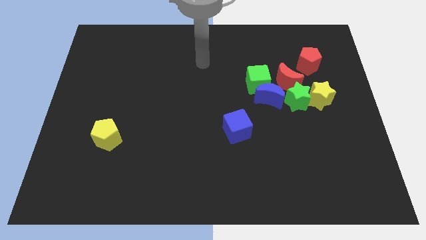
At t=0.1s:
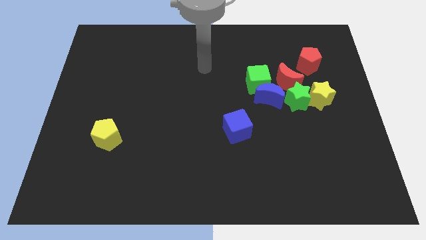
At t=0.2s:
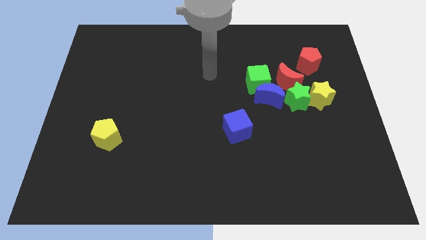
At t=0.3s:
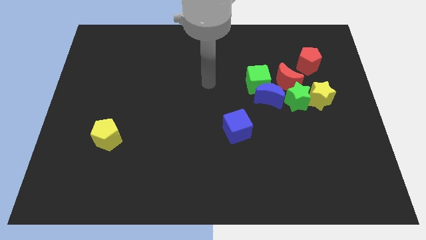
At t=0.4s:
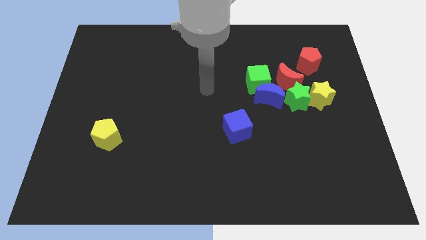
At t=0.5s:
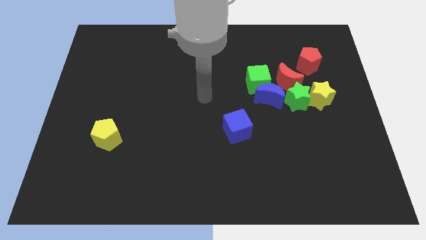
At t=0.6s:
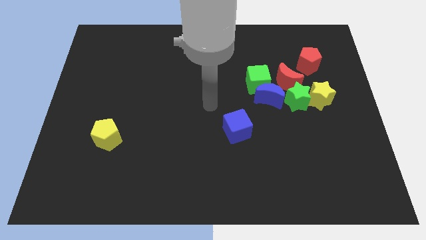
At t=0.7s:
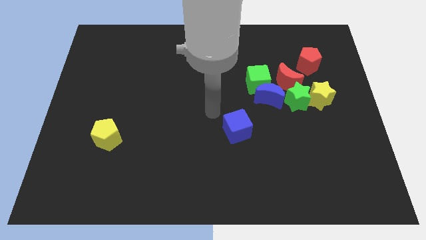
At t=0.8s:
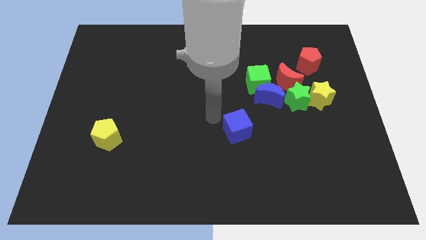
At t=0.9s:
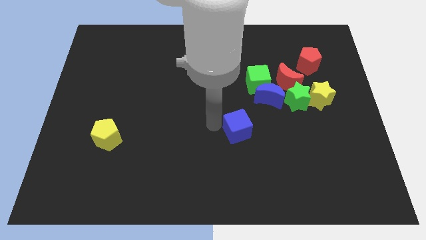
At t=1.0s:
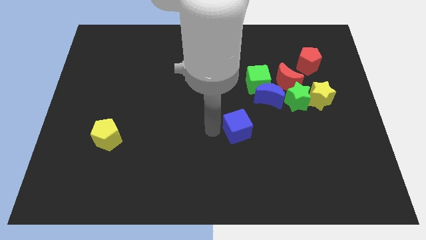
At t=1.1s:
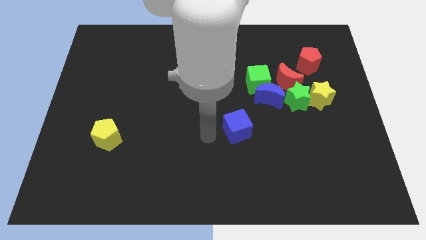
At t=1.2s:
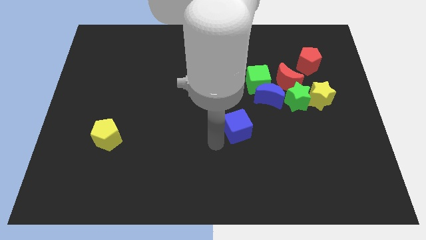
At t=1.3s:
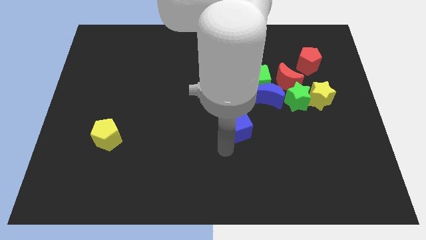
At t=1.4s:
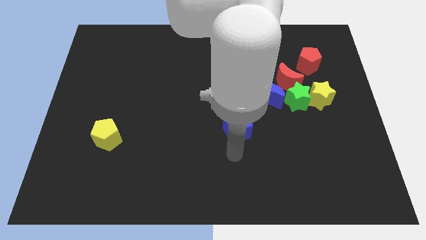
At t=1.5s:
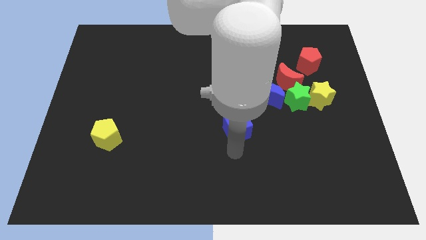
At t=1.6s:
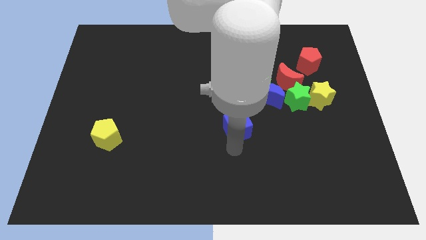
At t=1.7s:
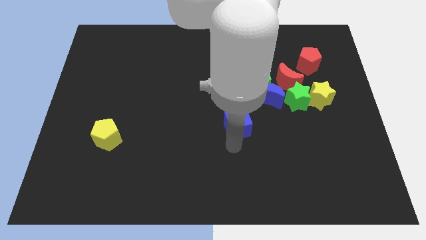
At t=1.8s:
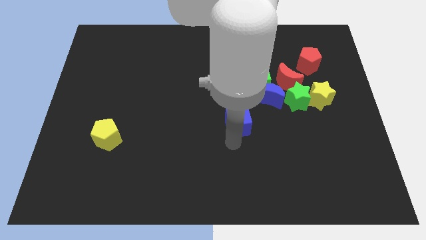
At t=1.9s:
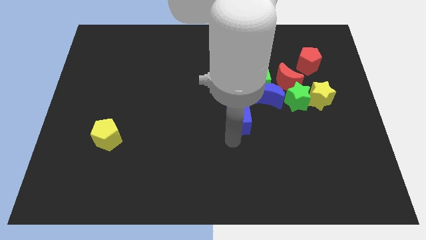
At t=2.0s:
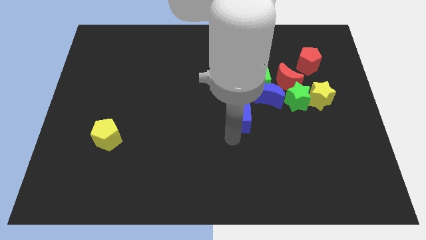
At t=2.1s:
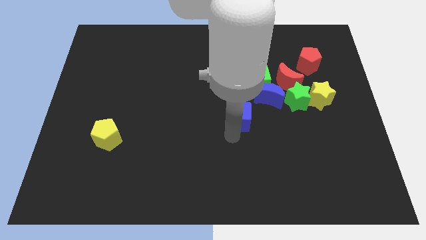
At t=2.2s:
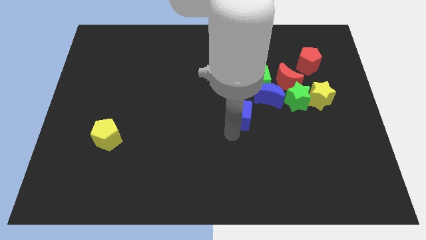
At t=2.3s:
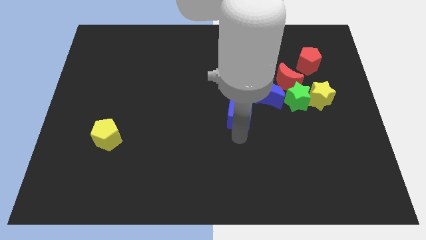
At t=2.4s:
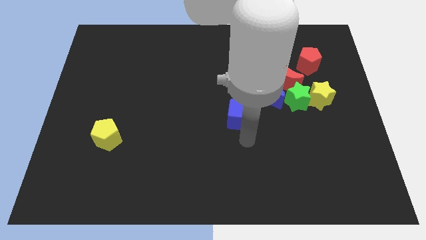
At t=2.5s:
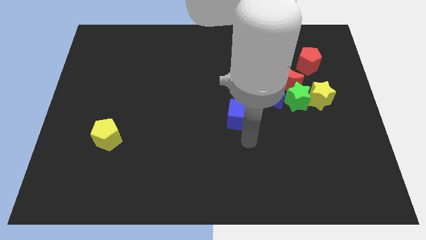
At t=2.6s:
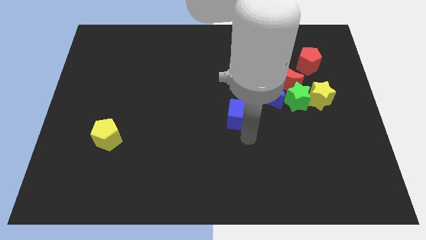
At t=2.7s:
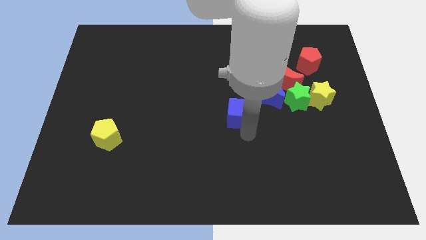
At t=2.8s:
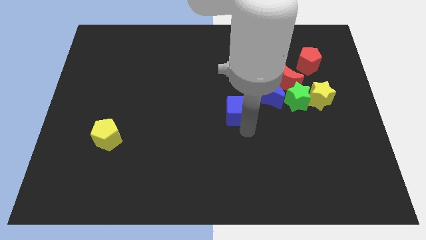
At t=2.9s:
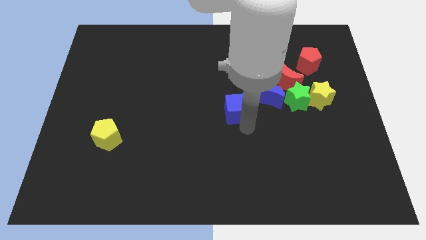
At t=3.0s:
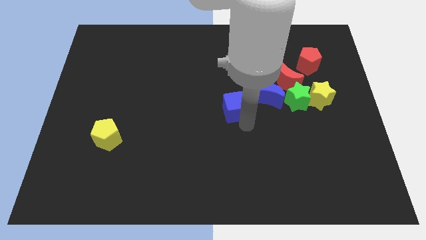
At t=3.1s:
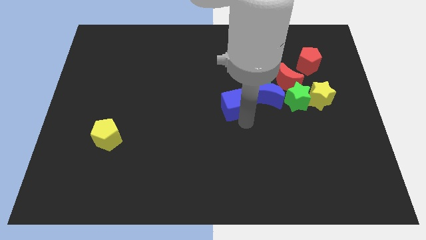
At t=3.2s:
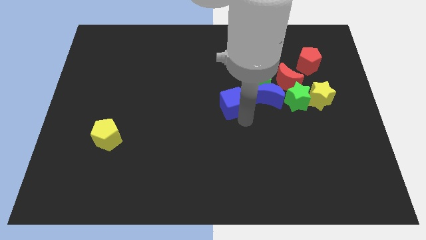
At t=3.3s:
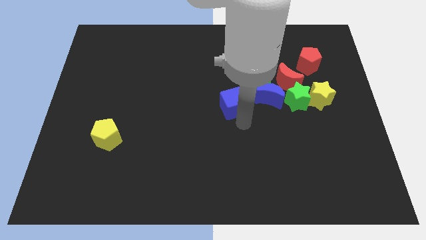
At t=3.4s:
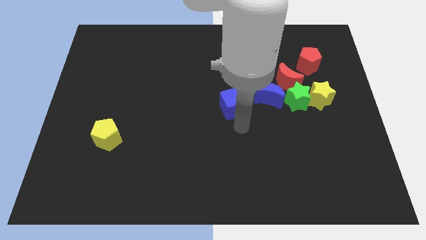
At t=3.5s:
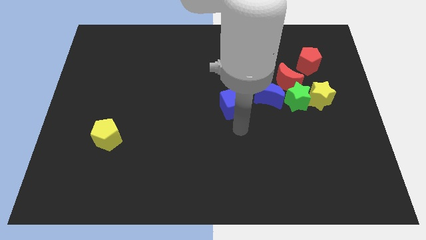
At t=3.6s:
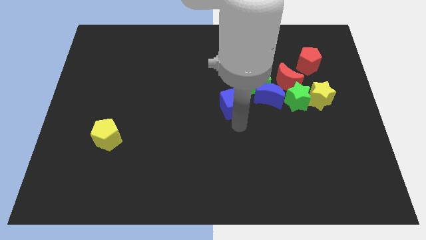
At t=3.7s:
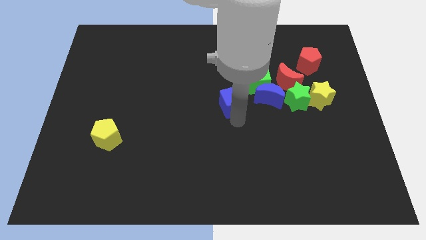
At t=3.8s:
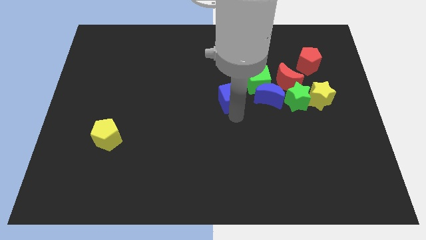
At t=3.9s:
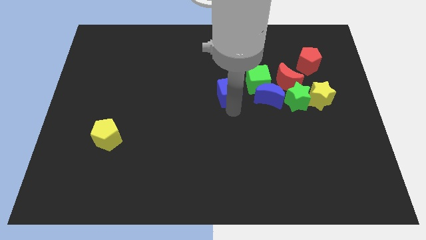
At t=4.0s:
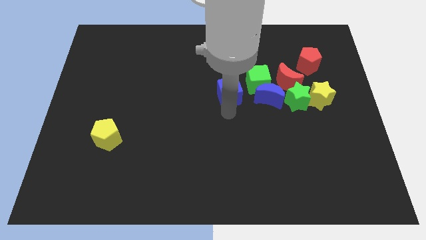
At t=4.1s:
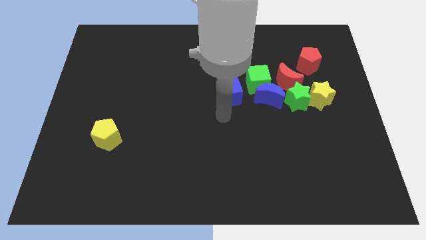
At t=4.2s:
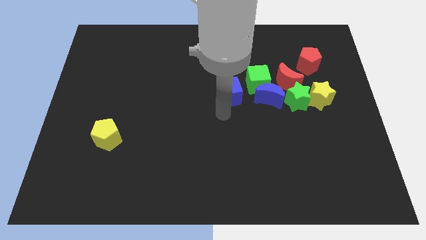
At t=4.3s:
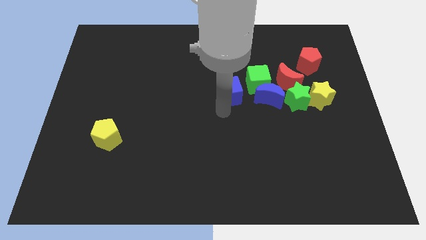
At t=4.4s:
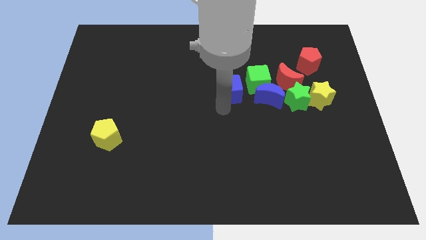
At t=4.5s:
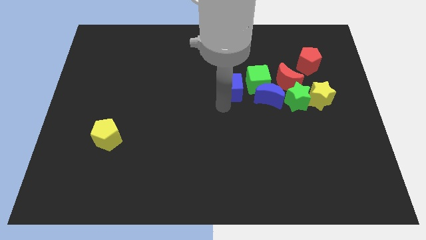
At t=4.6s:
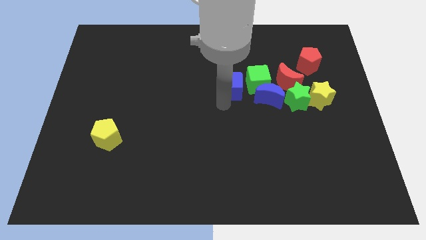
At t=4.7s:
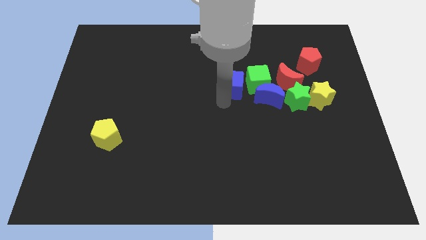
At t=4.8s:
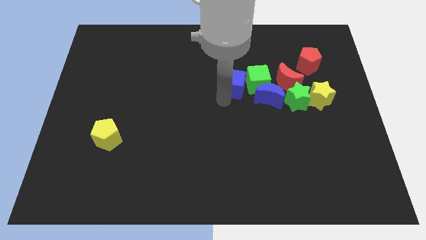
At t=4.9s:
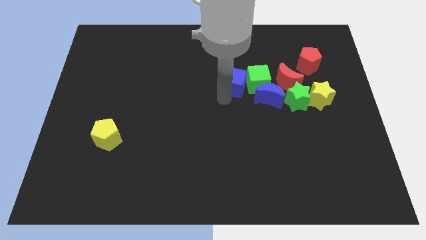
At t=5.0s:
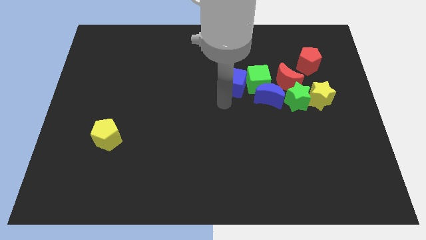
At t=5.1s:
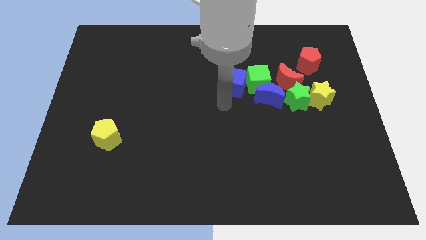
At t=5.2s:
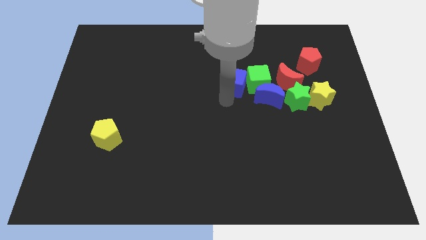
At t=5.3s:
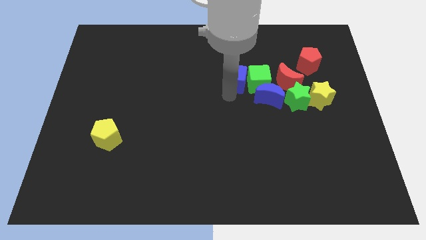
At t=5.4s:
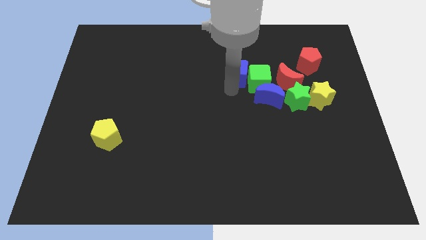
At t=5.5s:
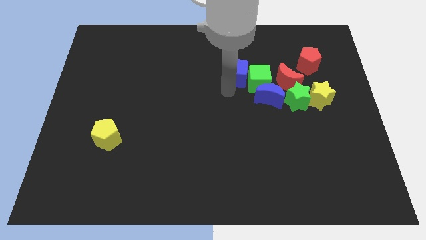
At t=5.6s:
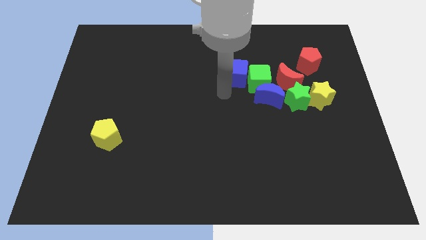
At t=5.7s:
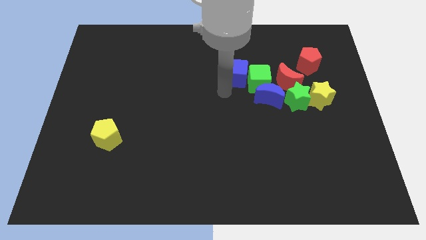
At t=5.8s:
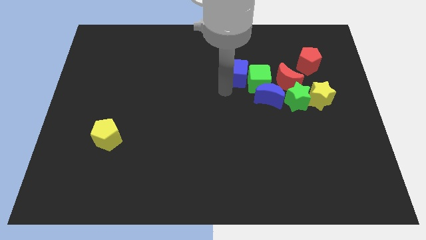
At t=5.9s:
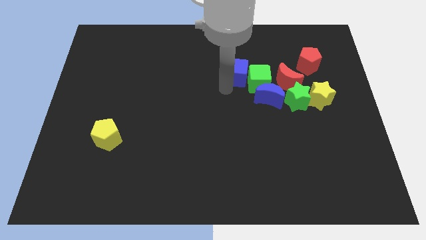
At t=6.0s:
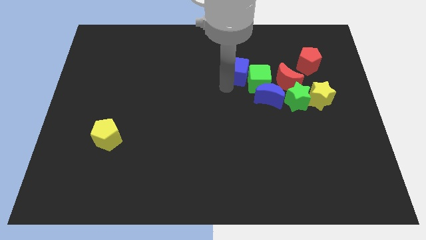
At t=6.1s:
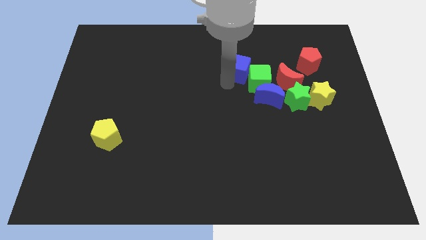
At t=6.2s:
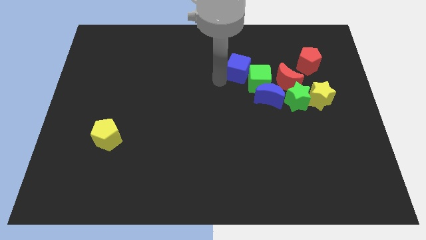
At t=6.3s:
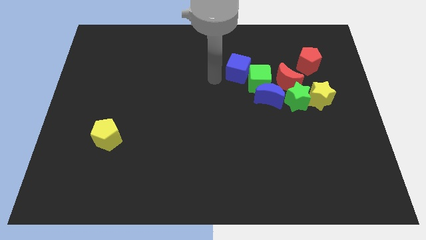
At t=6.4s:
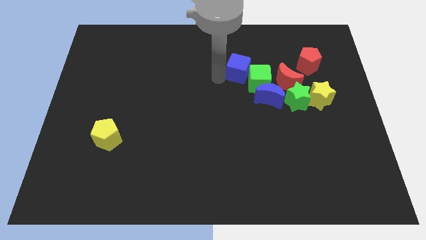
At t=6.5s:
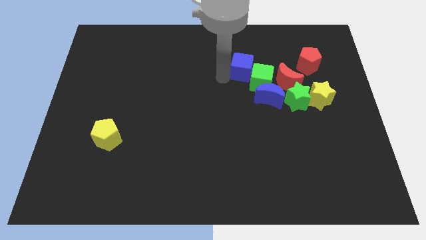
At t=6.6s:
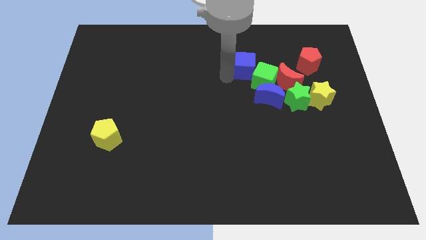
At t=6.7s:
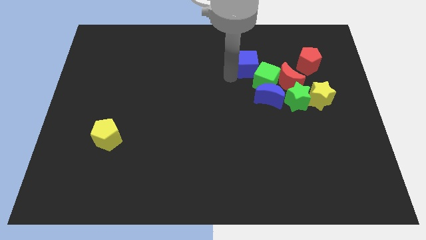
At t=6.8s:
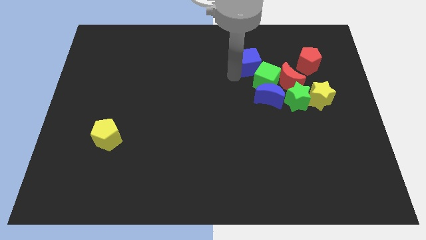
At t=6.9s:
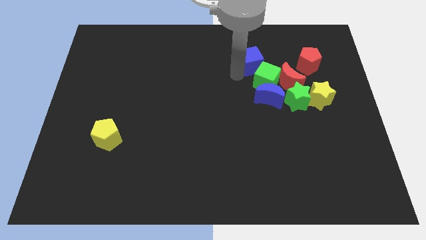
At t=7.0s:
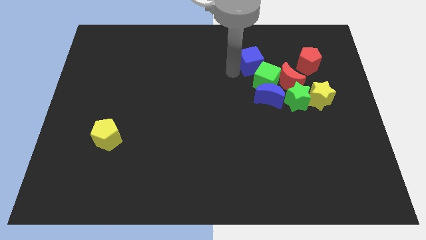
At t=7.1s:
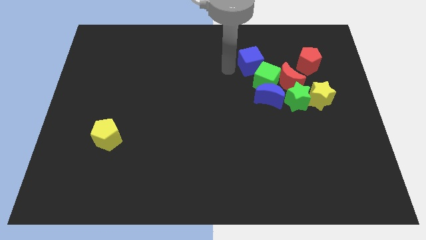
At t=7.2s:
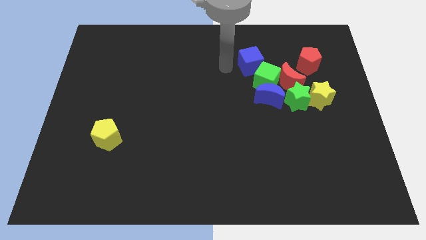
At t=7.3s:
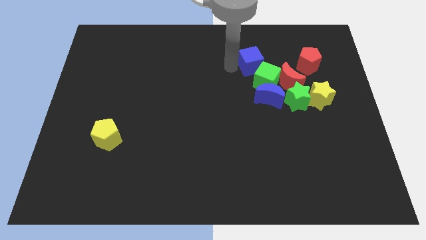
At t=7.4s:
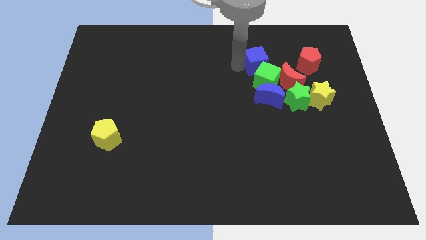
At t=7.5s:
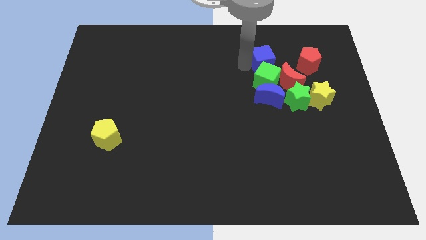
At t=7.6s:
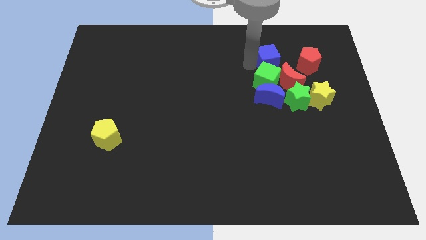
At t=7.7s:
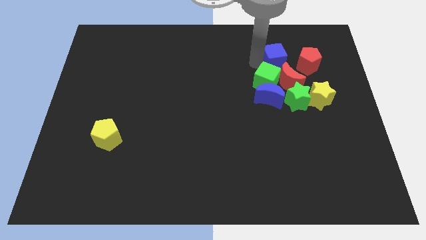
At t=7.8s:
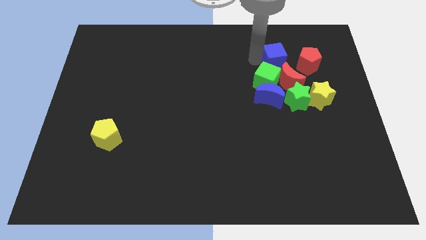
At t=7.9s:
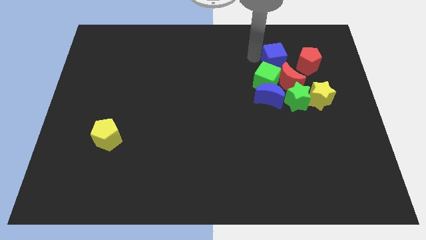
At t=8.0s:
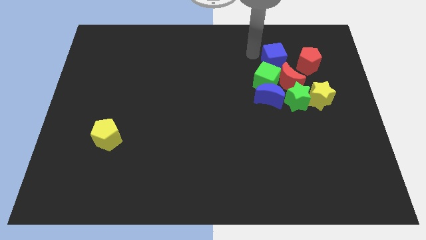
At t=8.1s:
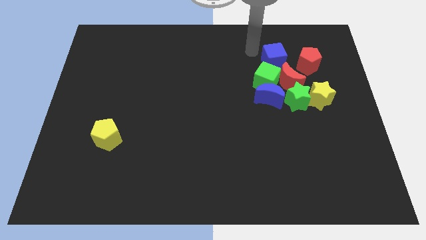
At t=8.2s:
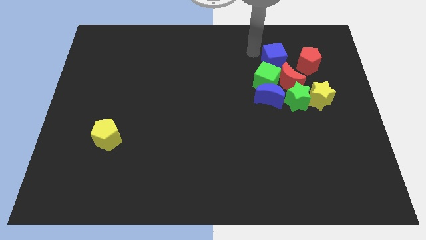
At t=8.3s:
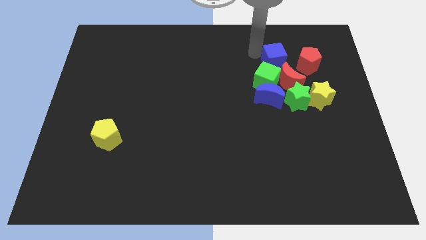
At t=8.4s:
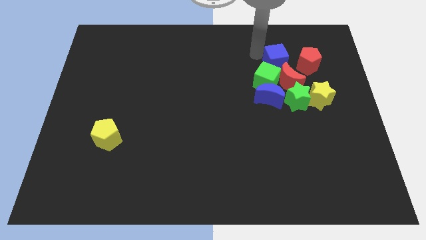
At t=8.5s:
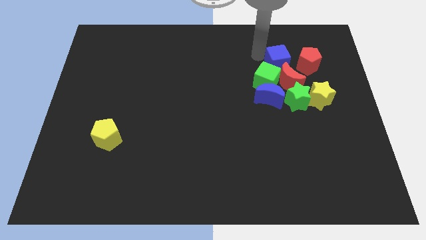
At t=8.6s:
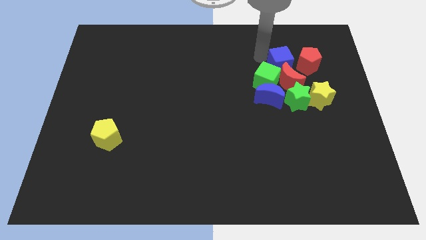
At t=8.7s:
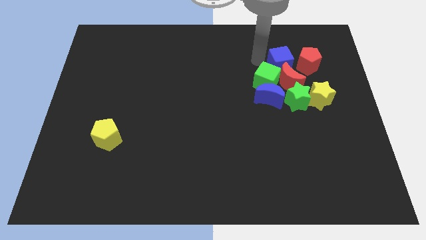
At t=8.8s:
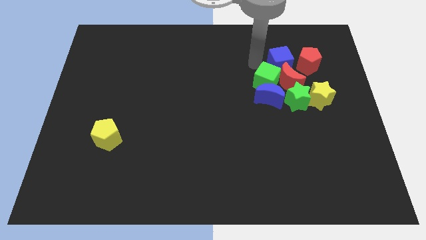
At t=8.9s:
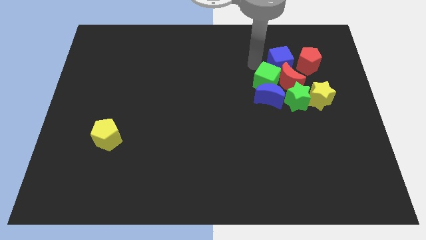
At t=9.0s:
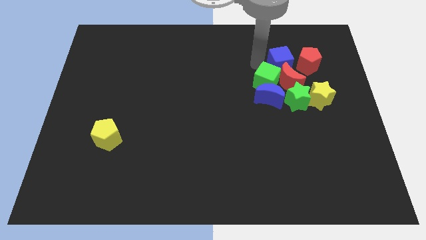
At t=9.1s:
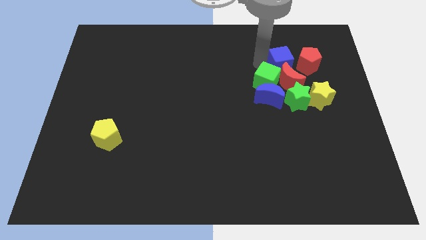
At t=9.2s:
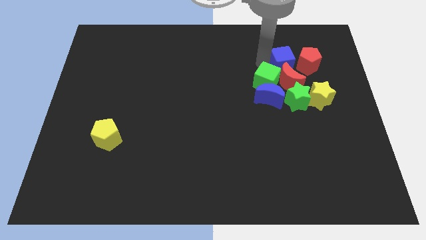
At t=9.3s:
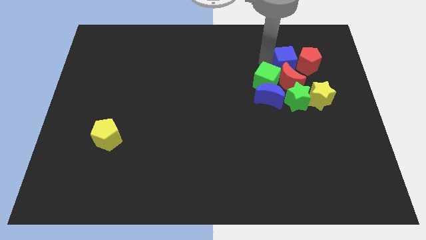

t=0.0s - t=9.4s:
move the blue cube to the red pentagon
